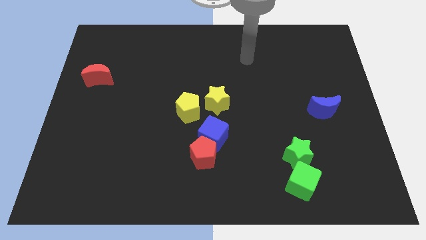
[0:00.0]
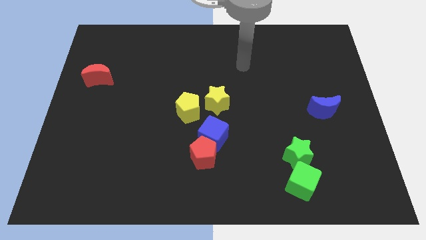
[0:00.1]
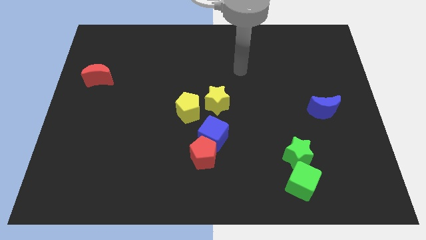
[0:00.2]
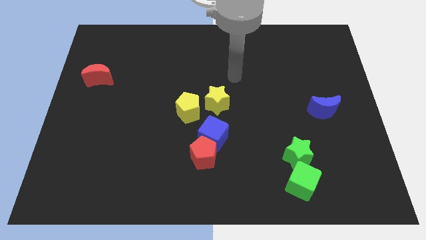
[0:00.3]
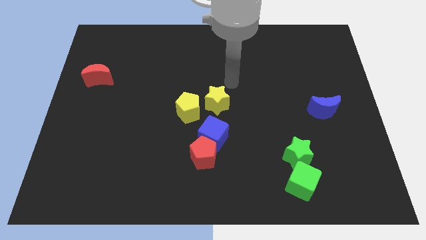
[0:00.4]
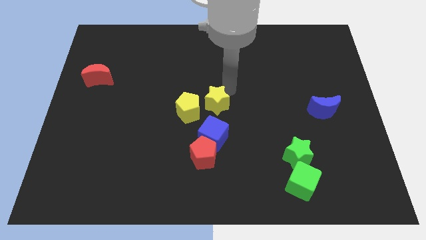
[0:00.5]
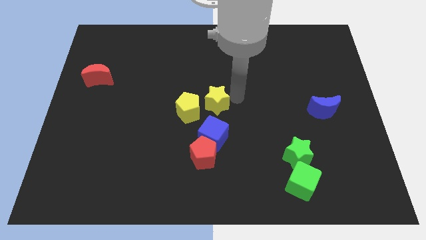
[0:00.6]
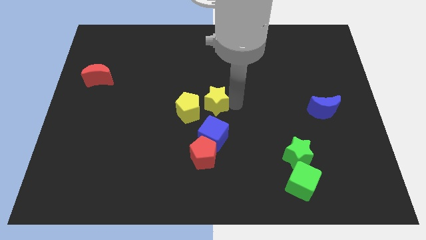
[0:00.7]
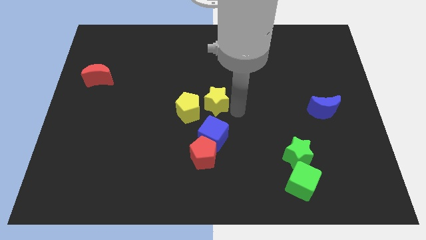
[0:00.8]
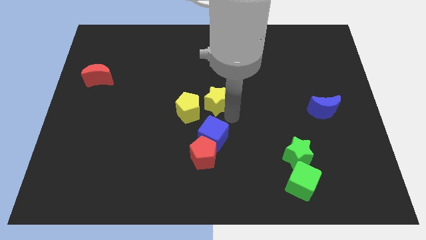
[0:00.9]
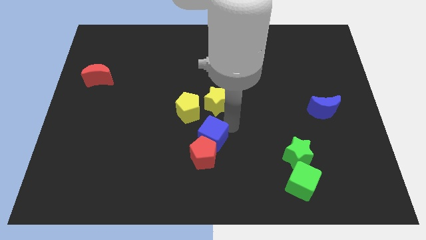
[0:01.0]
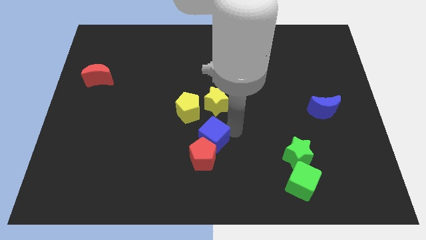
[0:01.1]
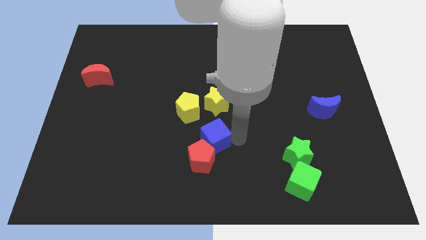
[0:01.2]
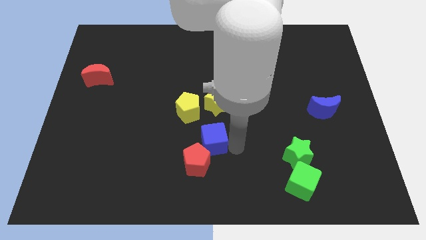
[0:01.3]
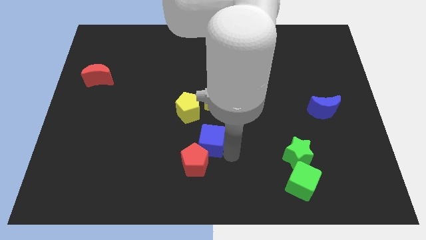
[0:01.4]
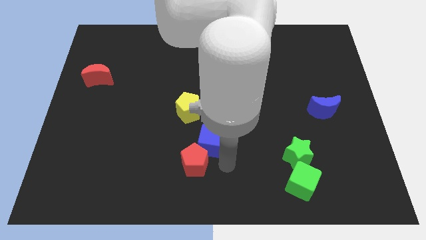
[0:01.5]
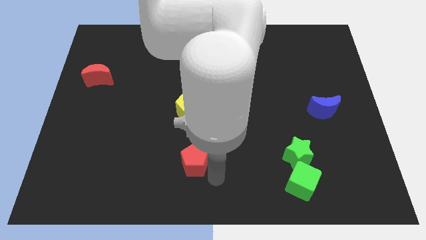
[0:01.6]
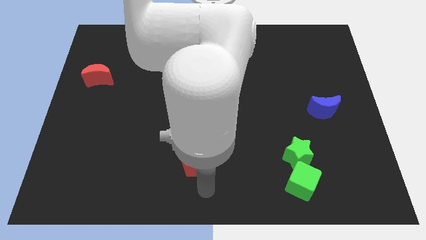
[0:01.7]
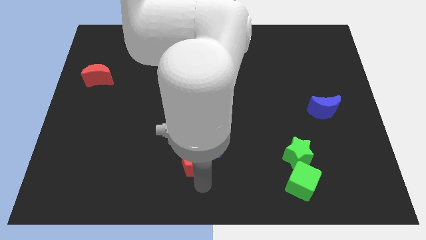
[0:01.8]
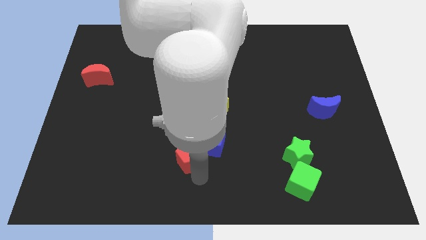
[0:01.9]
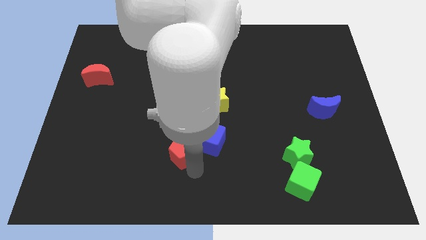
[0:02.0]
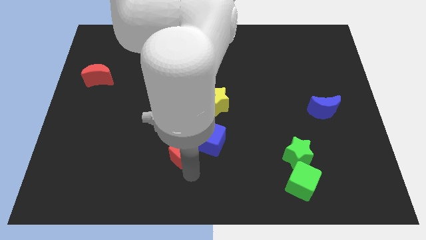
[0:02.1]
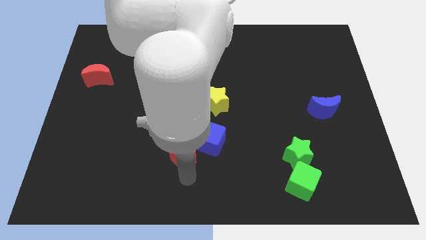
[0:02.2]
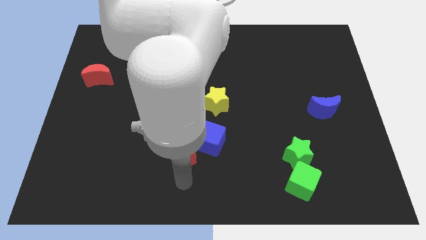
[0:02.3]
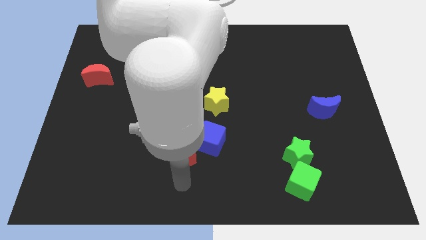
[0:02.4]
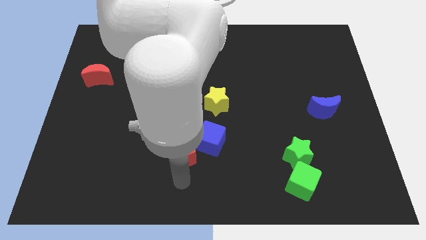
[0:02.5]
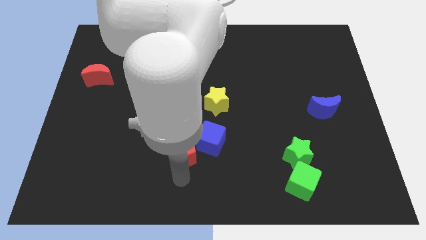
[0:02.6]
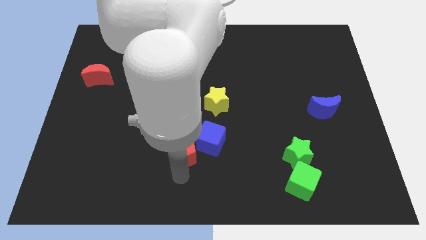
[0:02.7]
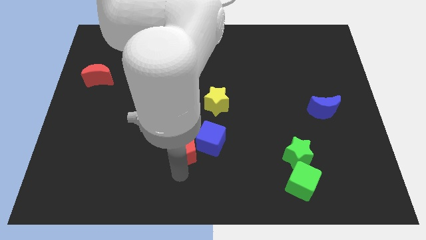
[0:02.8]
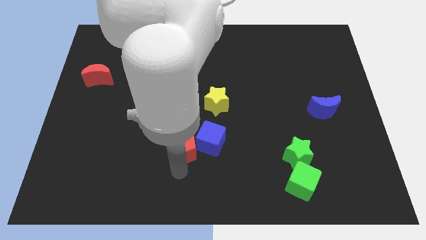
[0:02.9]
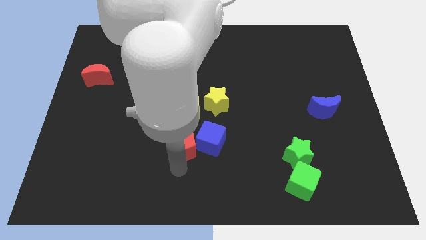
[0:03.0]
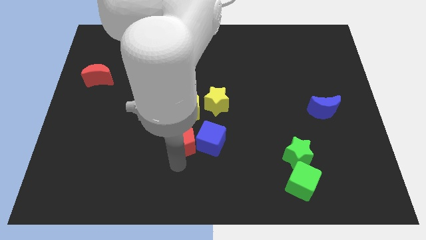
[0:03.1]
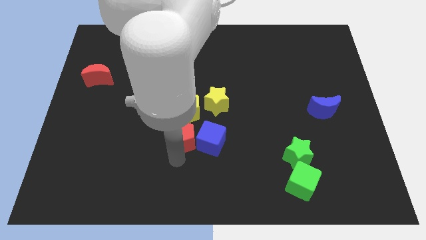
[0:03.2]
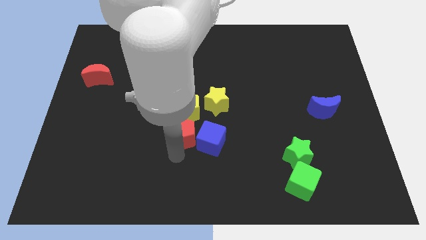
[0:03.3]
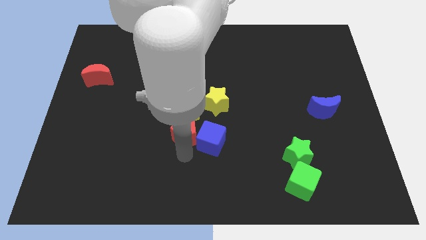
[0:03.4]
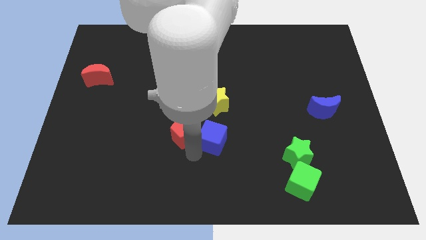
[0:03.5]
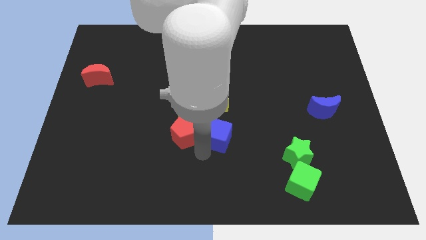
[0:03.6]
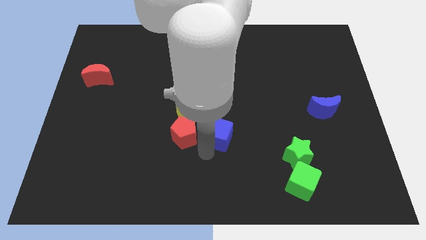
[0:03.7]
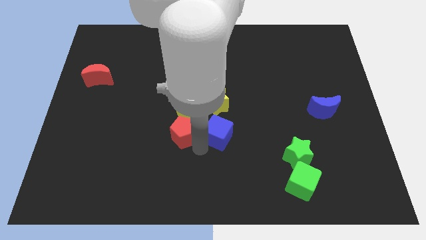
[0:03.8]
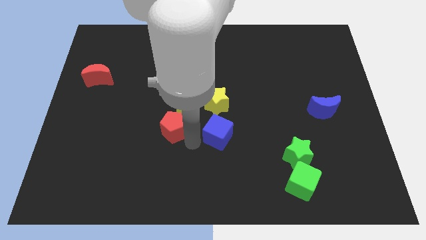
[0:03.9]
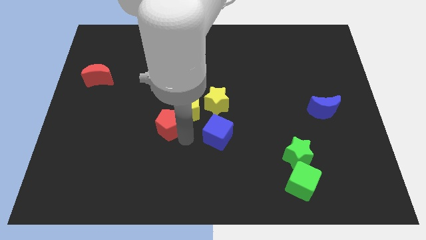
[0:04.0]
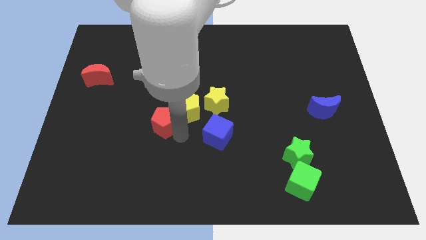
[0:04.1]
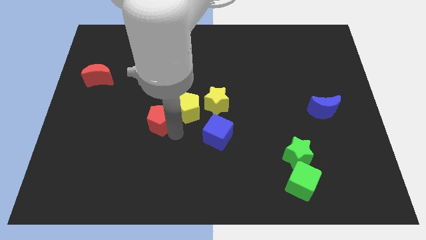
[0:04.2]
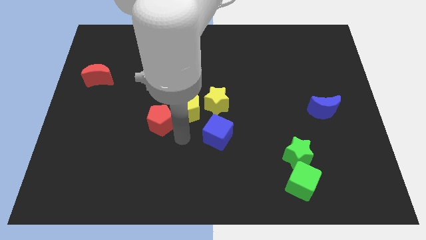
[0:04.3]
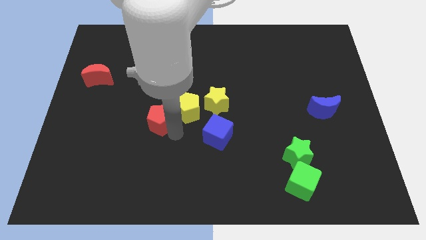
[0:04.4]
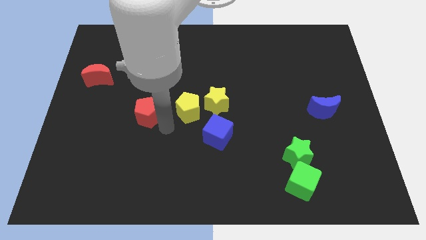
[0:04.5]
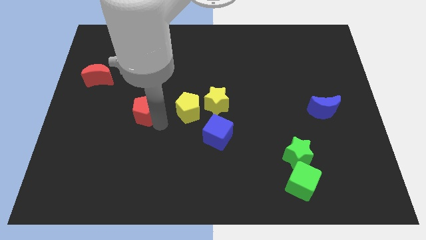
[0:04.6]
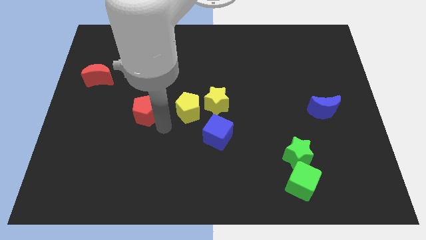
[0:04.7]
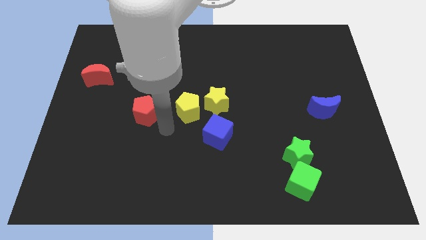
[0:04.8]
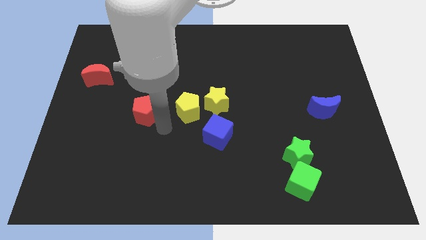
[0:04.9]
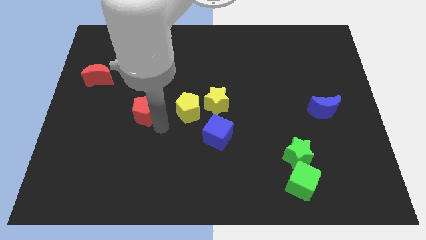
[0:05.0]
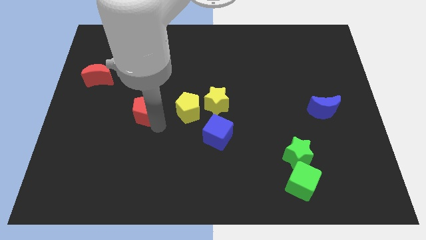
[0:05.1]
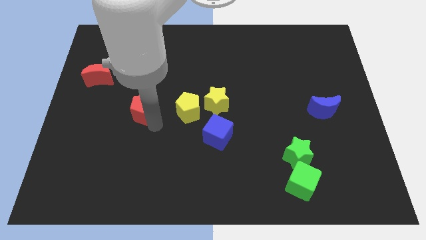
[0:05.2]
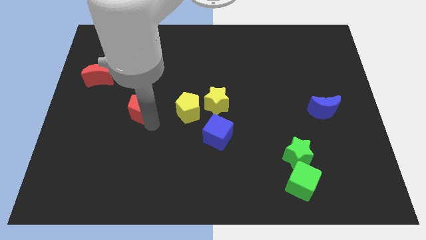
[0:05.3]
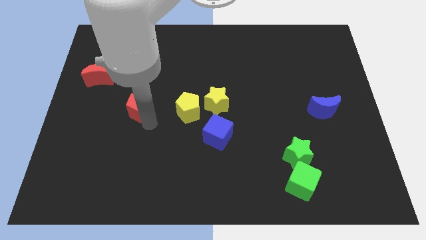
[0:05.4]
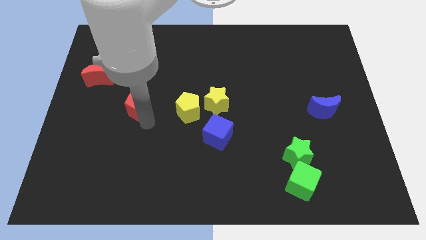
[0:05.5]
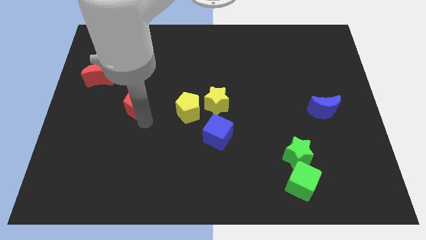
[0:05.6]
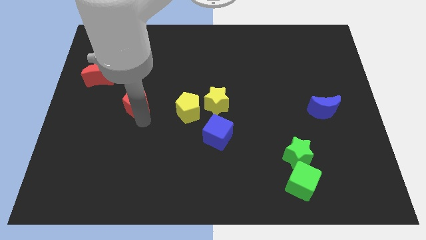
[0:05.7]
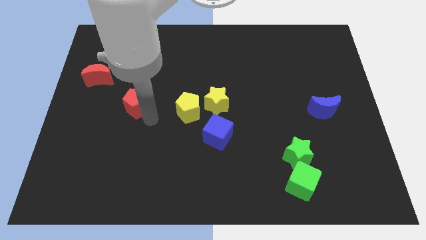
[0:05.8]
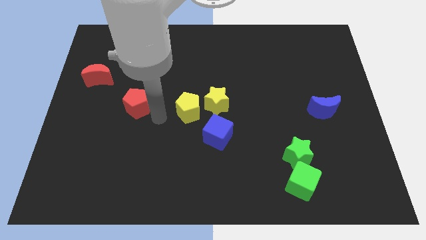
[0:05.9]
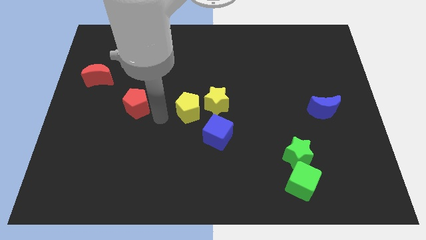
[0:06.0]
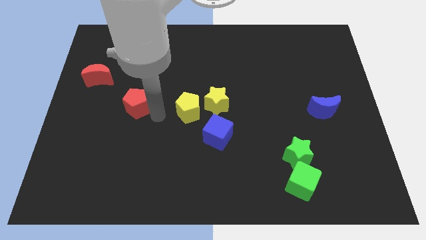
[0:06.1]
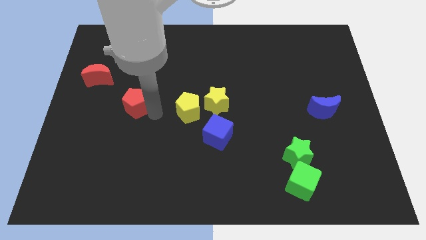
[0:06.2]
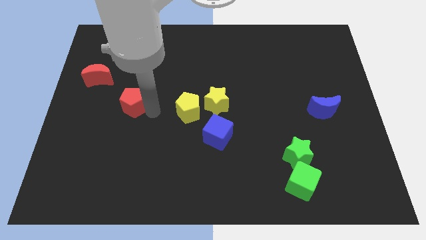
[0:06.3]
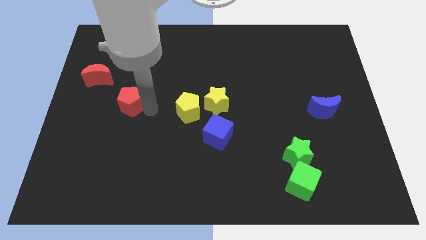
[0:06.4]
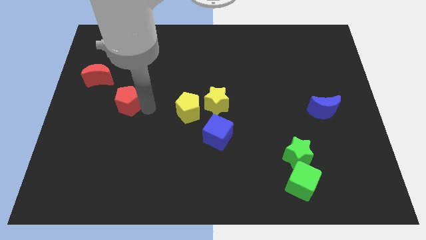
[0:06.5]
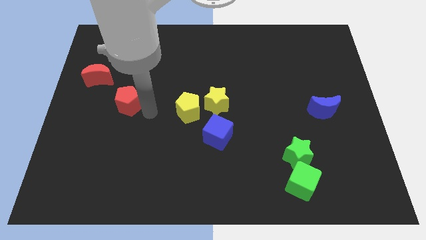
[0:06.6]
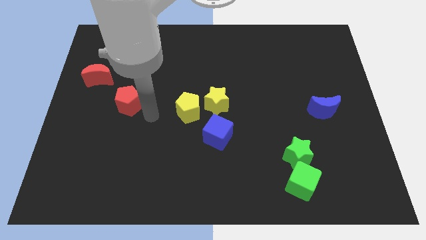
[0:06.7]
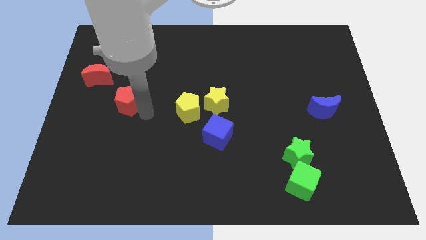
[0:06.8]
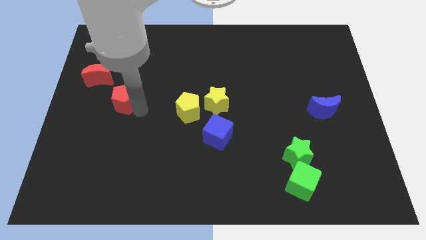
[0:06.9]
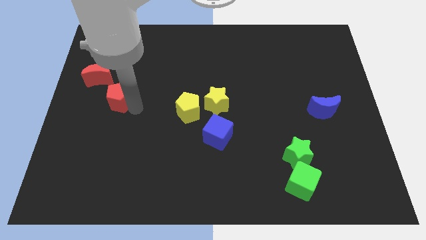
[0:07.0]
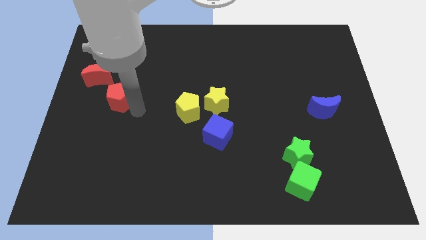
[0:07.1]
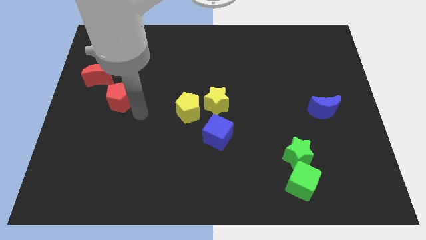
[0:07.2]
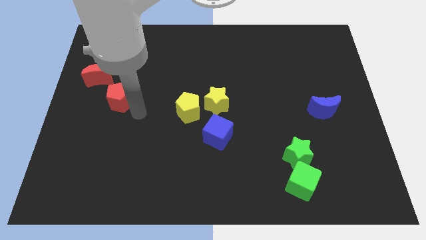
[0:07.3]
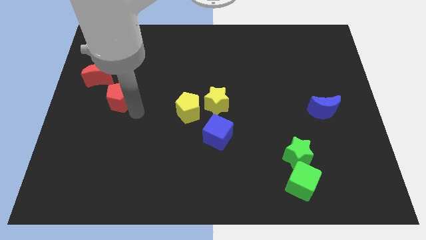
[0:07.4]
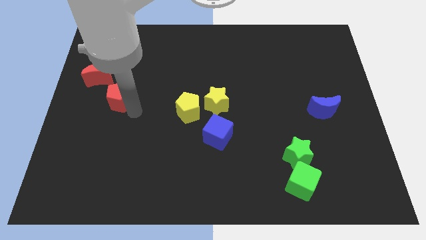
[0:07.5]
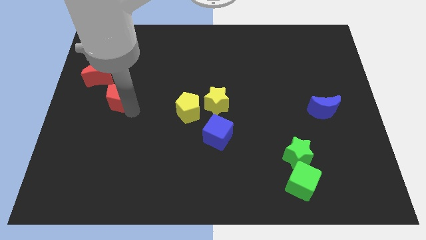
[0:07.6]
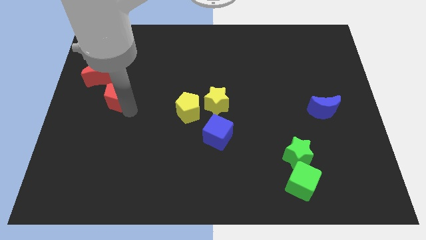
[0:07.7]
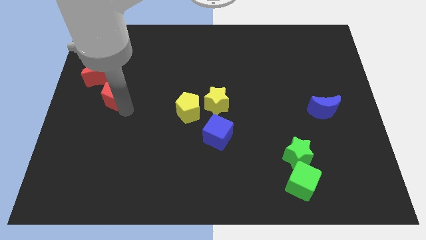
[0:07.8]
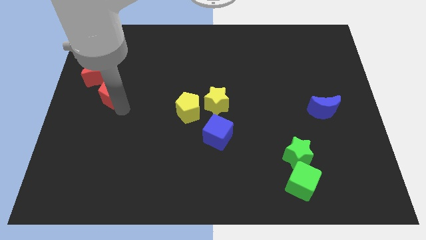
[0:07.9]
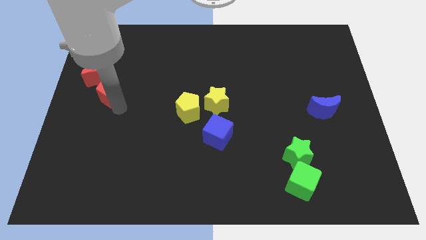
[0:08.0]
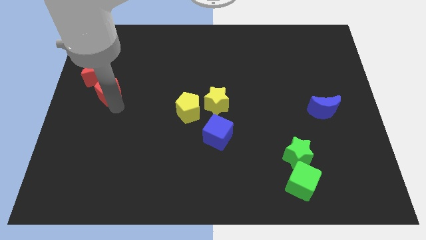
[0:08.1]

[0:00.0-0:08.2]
put the red pentagon next to the red moon
